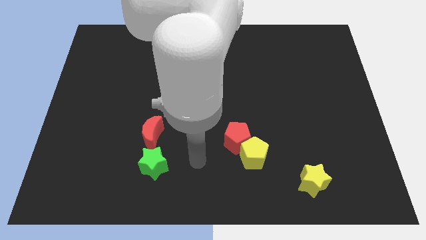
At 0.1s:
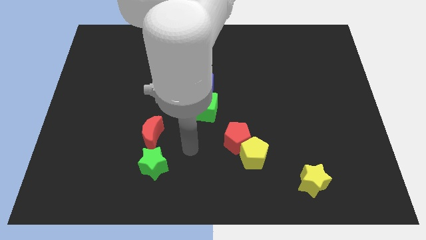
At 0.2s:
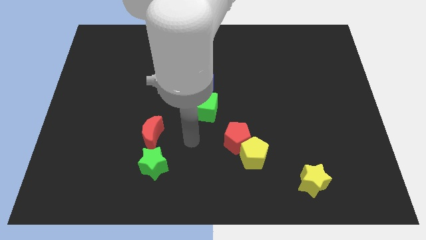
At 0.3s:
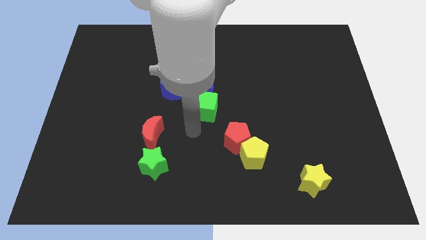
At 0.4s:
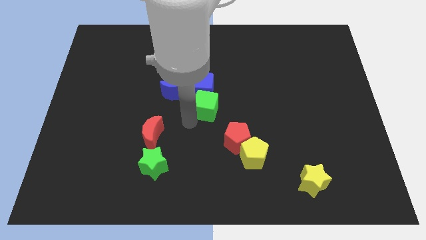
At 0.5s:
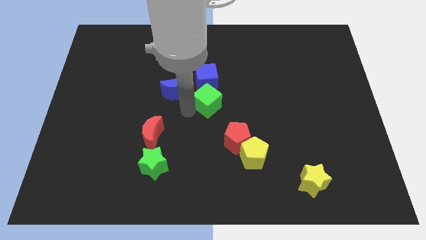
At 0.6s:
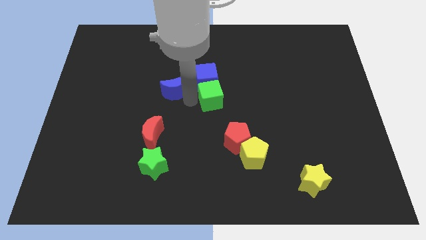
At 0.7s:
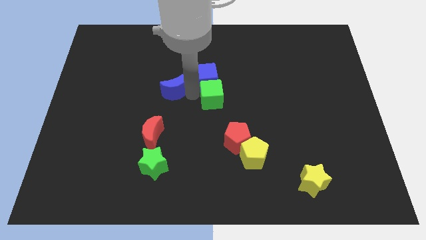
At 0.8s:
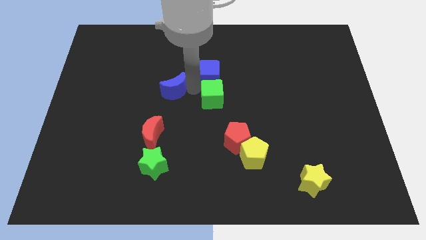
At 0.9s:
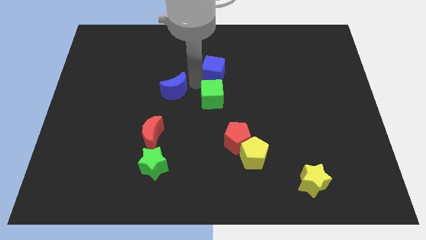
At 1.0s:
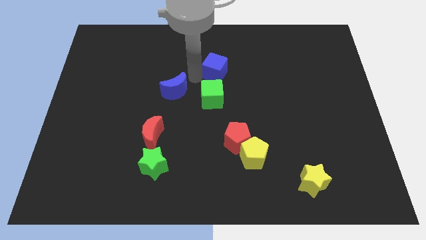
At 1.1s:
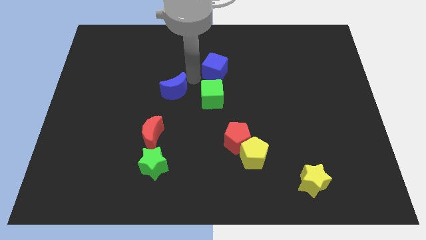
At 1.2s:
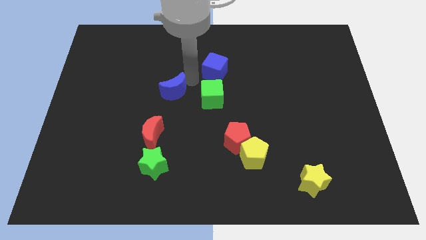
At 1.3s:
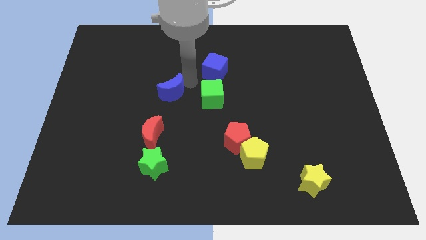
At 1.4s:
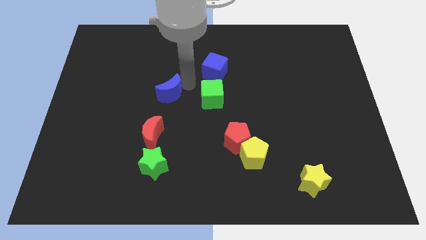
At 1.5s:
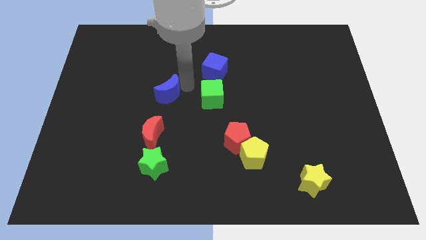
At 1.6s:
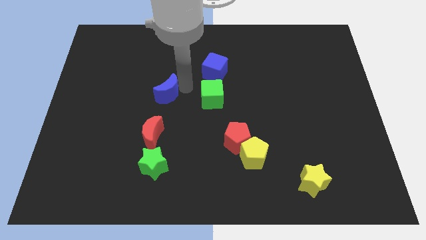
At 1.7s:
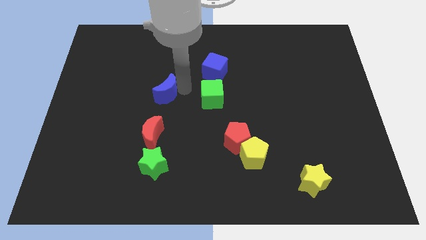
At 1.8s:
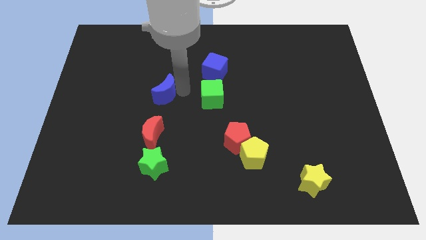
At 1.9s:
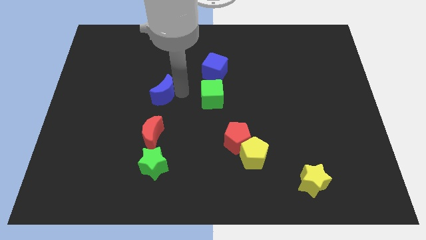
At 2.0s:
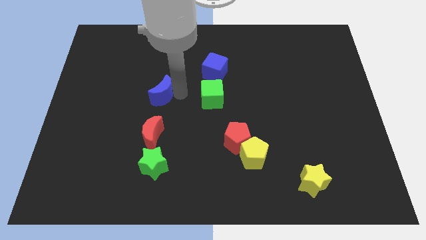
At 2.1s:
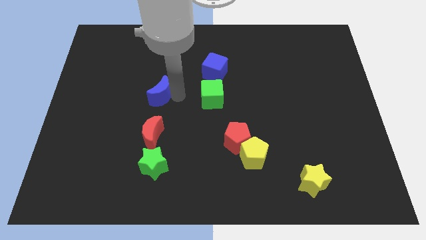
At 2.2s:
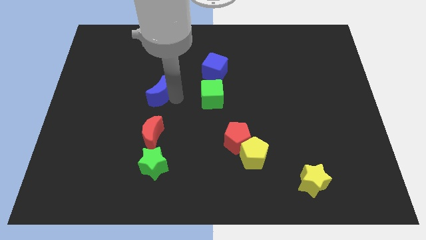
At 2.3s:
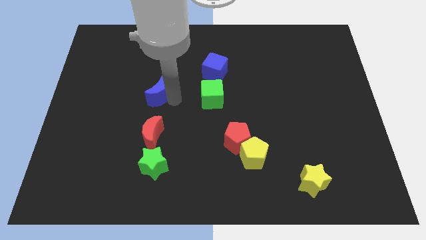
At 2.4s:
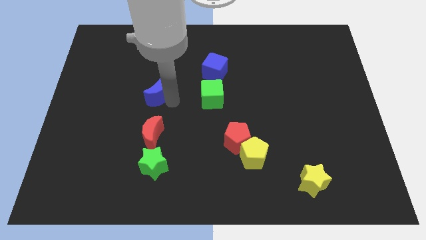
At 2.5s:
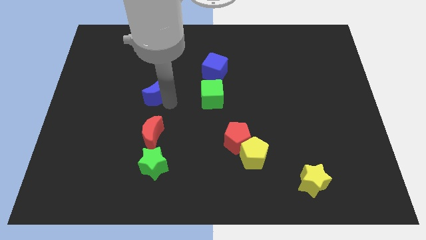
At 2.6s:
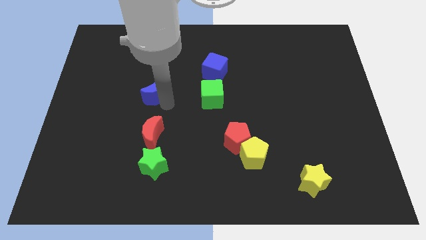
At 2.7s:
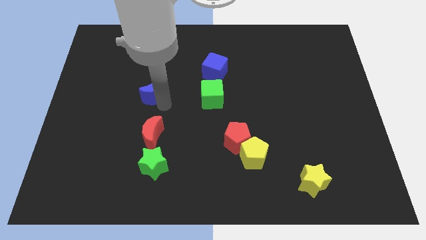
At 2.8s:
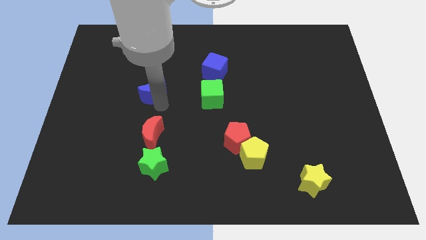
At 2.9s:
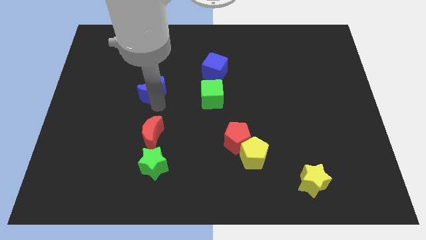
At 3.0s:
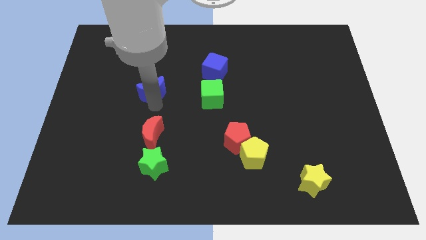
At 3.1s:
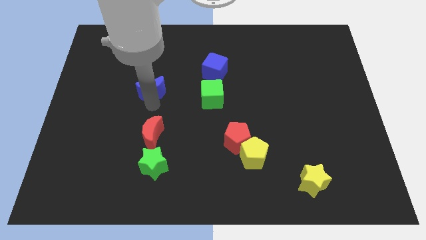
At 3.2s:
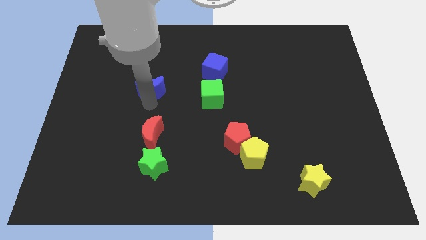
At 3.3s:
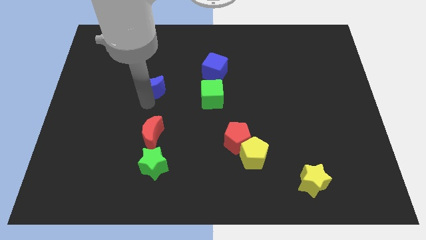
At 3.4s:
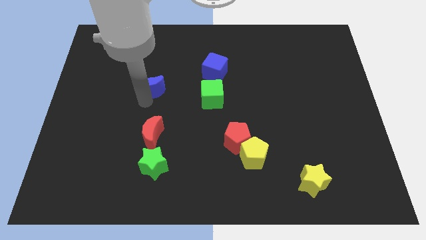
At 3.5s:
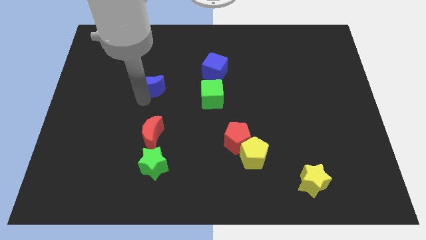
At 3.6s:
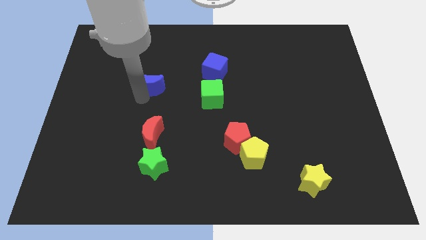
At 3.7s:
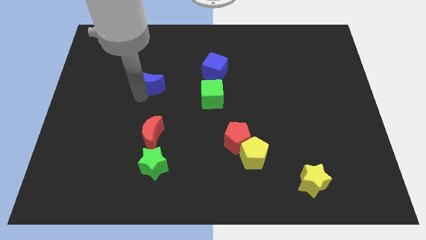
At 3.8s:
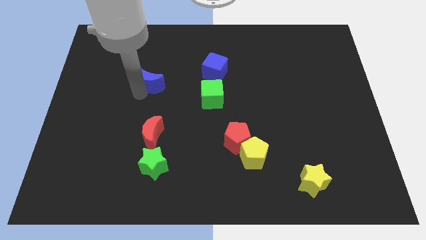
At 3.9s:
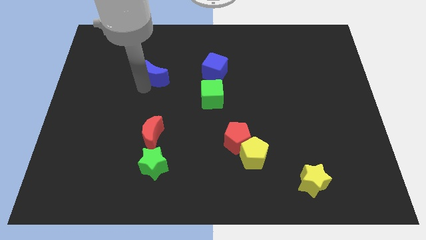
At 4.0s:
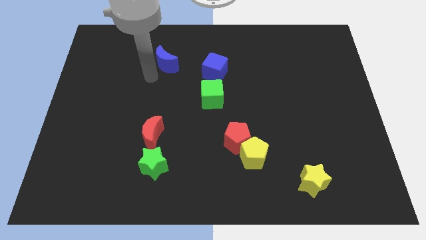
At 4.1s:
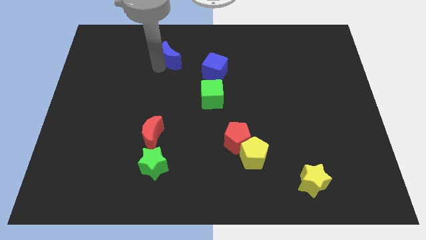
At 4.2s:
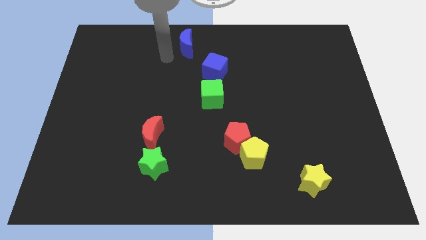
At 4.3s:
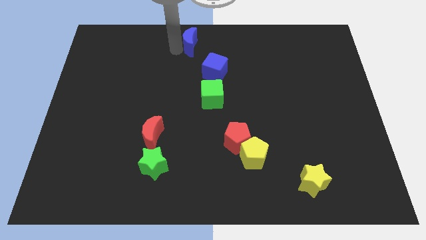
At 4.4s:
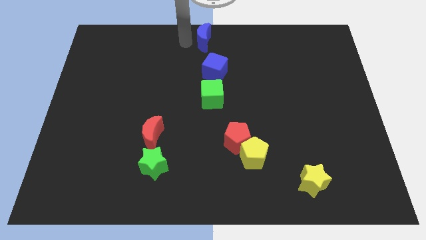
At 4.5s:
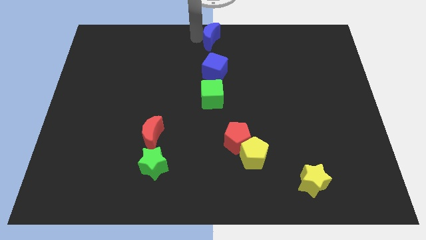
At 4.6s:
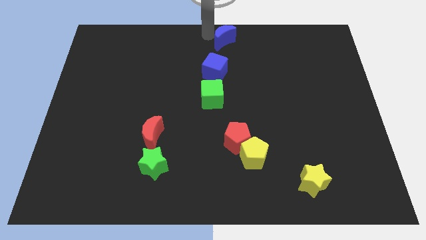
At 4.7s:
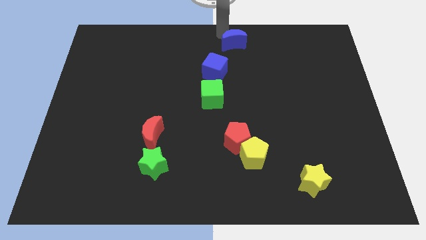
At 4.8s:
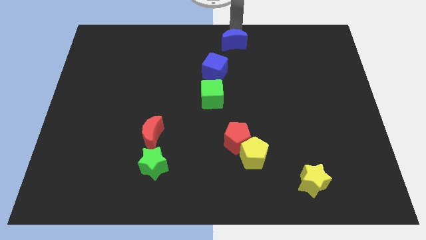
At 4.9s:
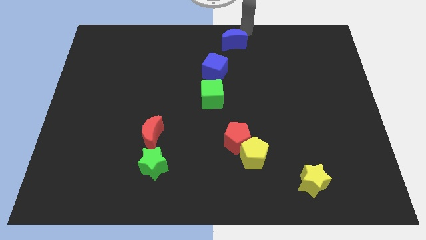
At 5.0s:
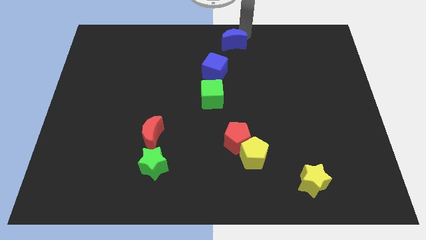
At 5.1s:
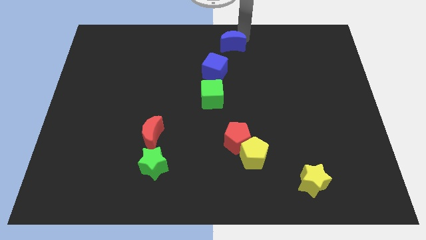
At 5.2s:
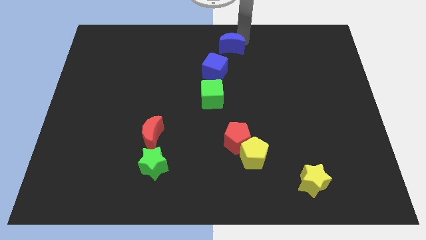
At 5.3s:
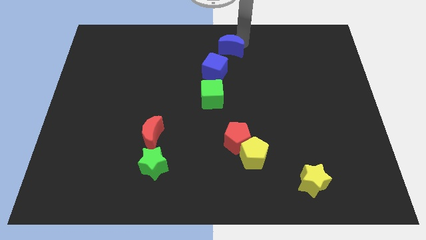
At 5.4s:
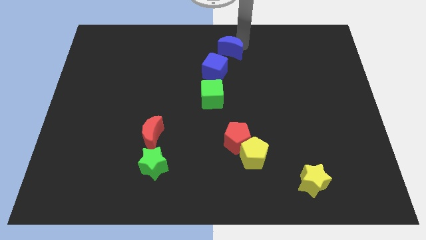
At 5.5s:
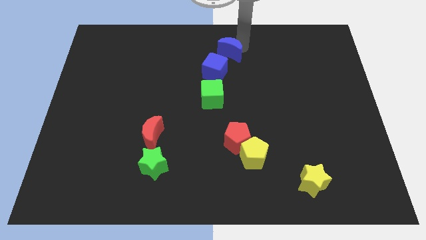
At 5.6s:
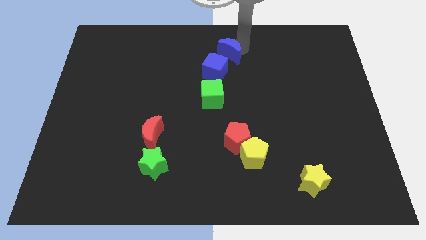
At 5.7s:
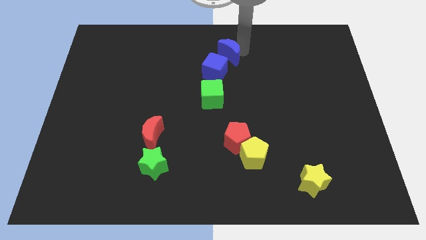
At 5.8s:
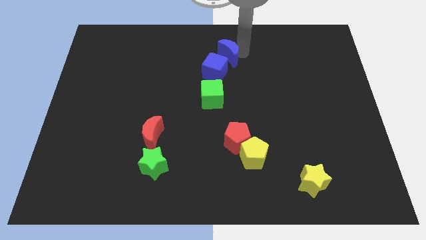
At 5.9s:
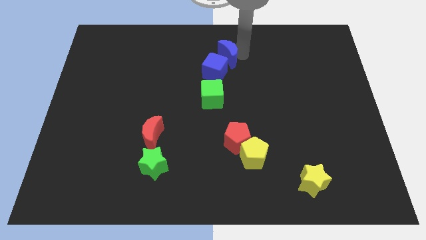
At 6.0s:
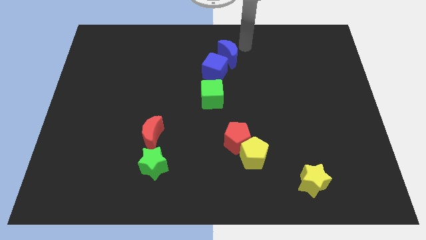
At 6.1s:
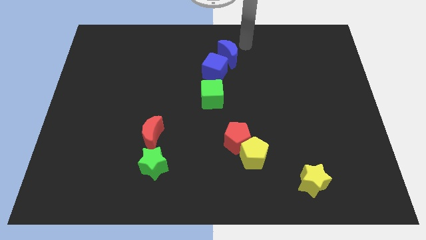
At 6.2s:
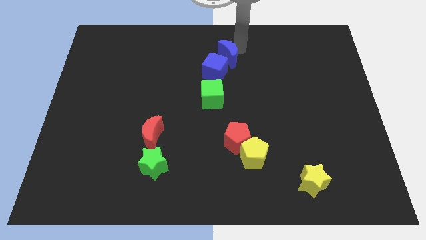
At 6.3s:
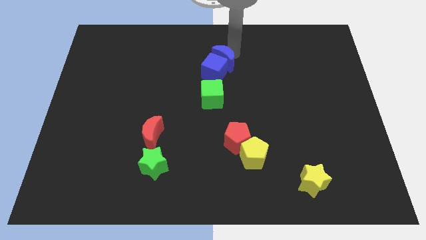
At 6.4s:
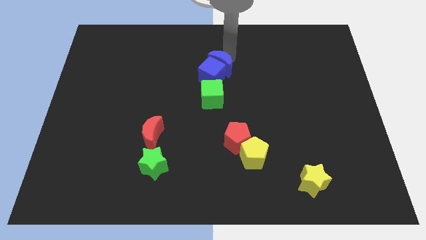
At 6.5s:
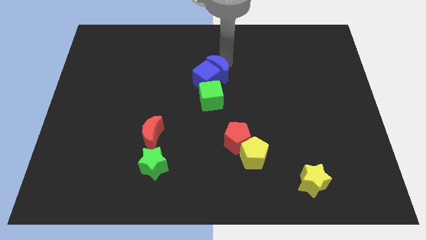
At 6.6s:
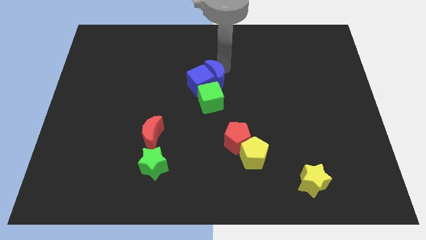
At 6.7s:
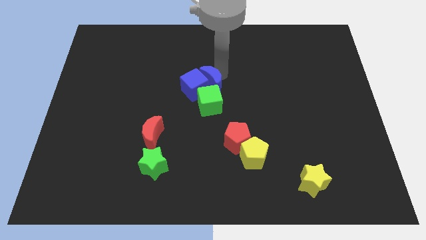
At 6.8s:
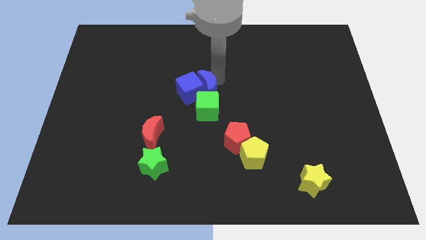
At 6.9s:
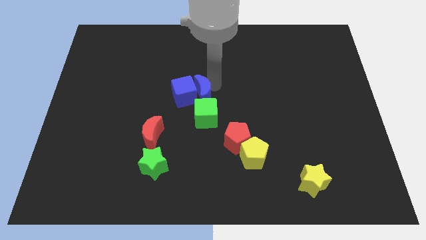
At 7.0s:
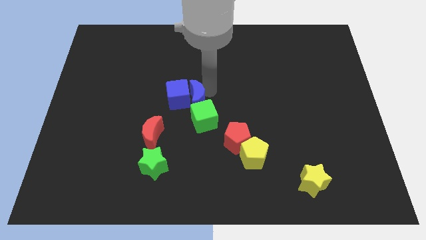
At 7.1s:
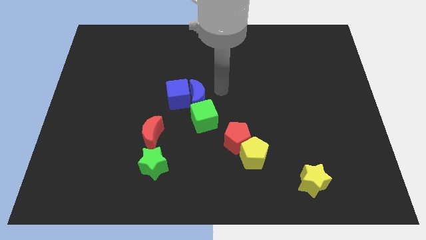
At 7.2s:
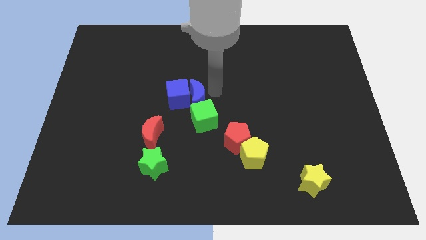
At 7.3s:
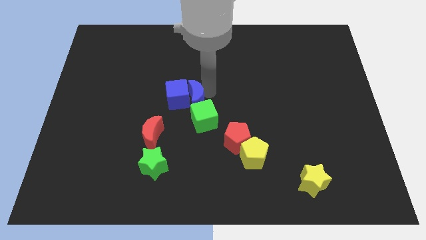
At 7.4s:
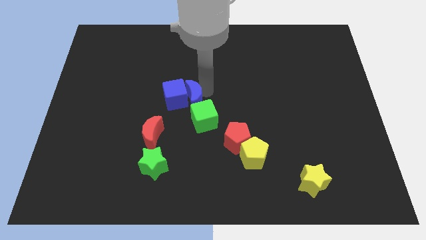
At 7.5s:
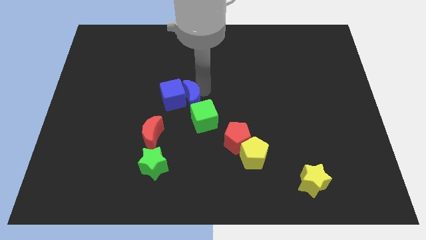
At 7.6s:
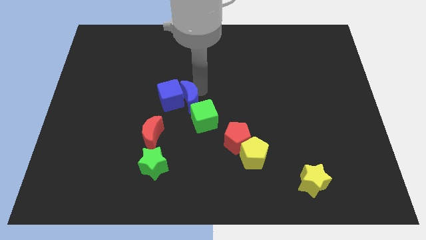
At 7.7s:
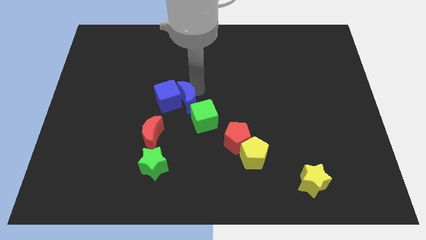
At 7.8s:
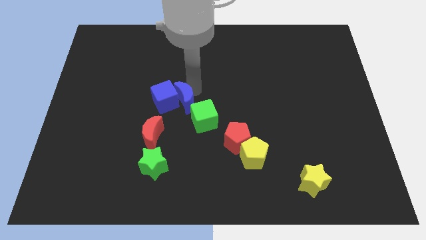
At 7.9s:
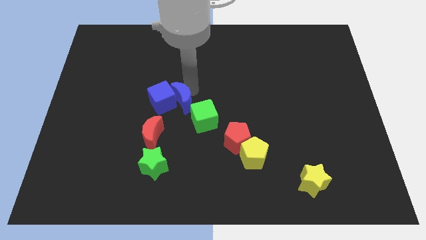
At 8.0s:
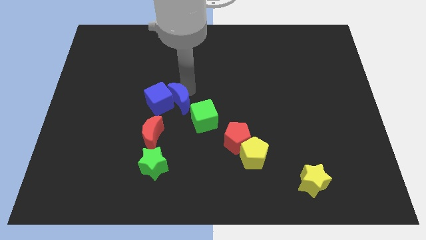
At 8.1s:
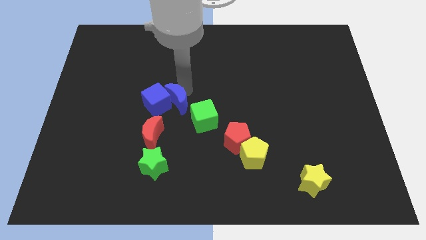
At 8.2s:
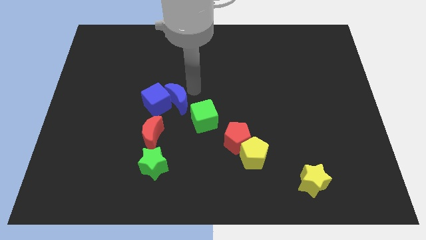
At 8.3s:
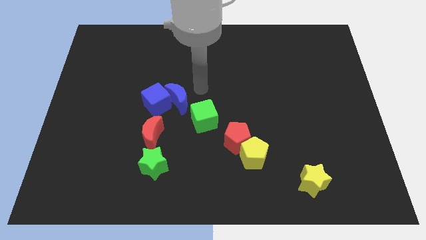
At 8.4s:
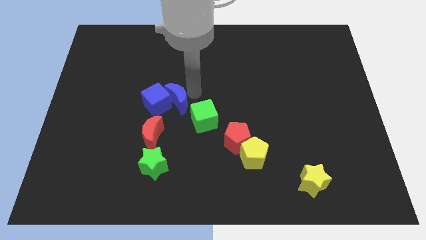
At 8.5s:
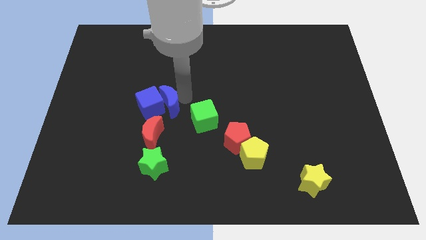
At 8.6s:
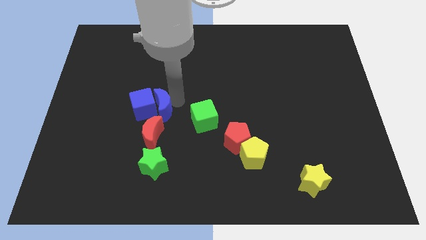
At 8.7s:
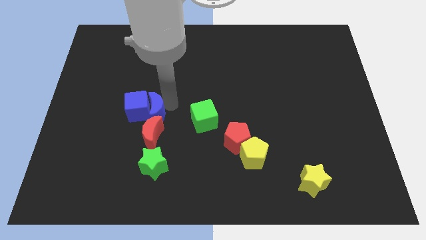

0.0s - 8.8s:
slide the blue moon a bit down and then left
